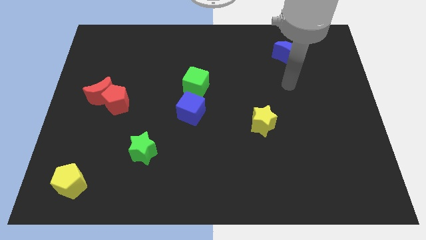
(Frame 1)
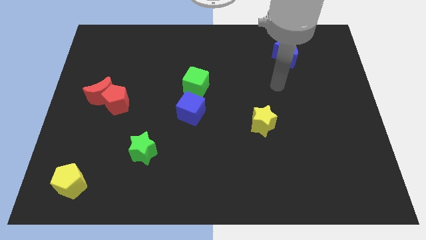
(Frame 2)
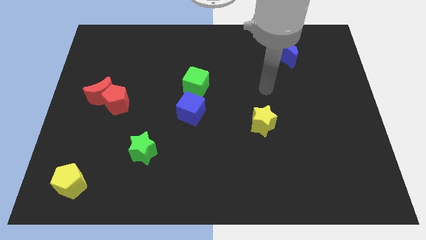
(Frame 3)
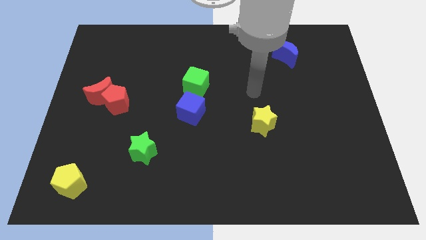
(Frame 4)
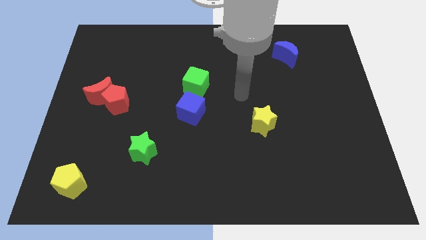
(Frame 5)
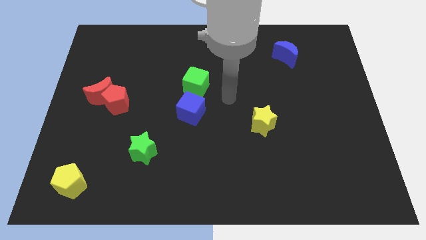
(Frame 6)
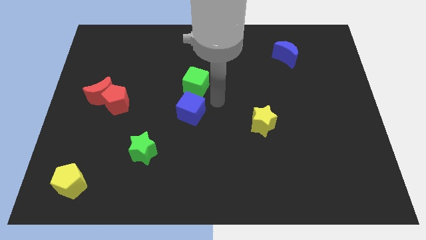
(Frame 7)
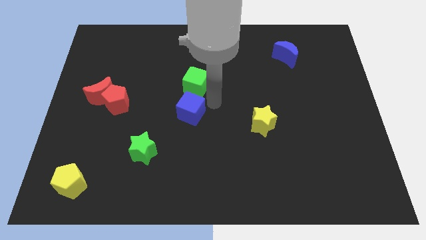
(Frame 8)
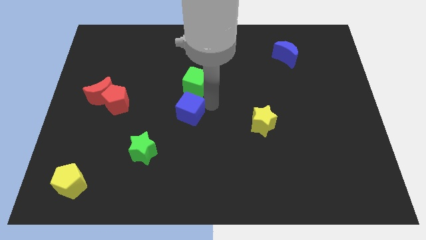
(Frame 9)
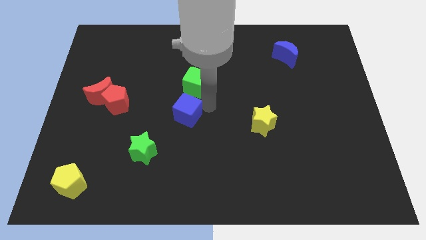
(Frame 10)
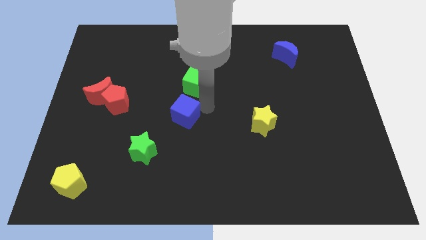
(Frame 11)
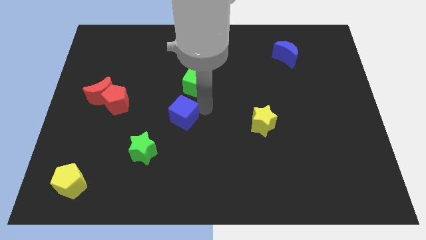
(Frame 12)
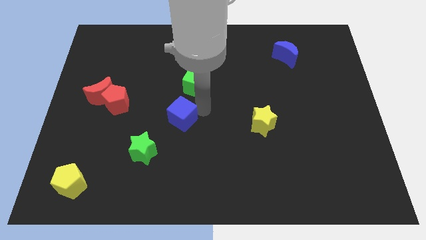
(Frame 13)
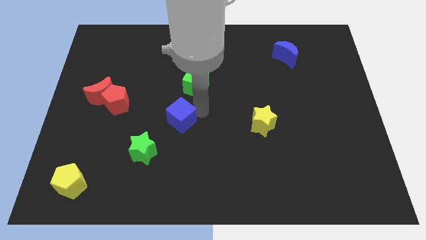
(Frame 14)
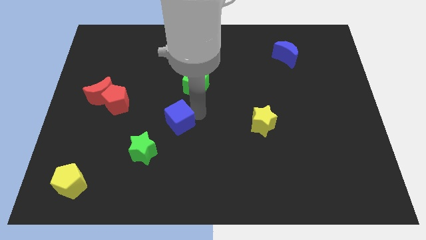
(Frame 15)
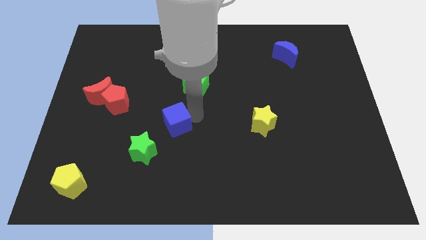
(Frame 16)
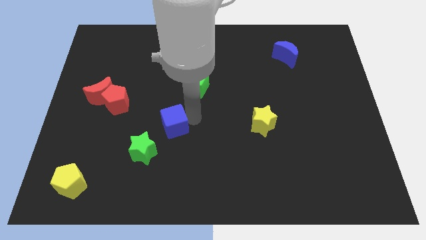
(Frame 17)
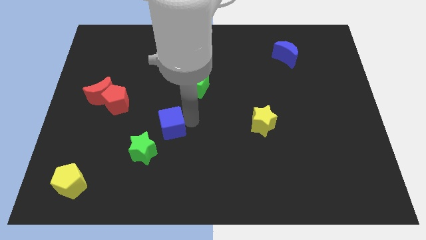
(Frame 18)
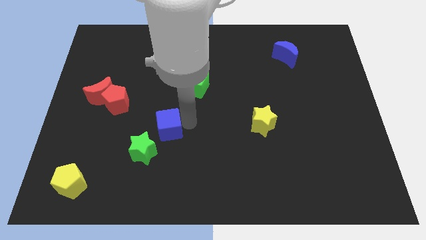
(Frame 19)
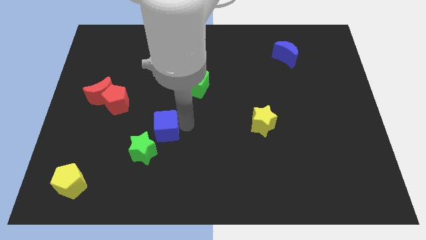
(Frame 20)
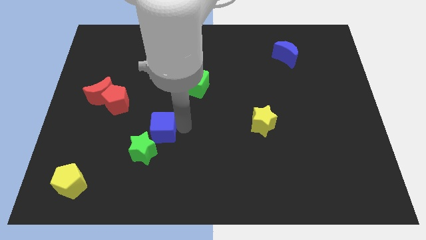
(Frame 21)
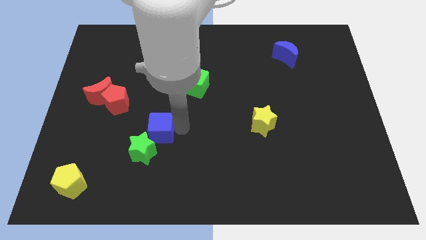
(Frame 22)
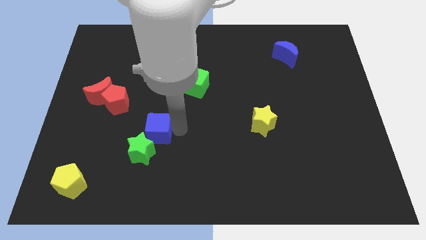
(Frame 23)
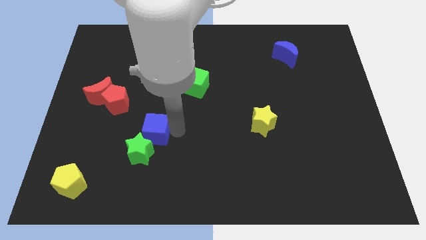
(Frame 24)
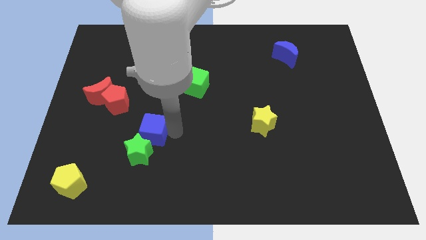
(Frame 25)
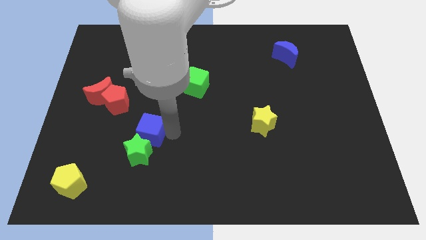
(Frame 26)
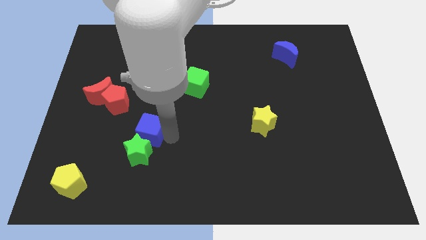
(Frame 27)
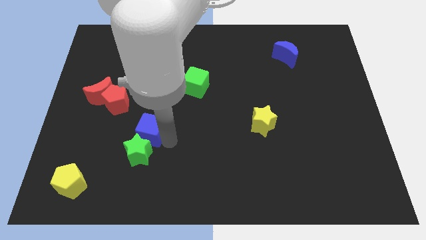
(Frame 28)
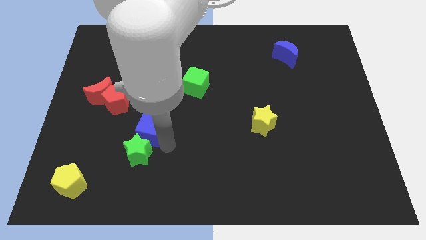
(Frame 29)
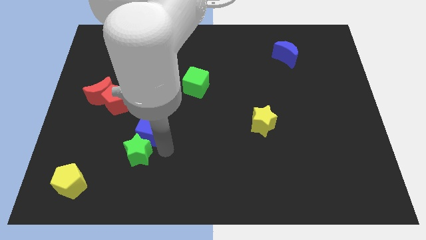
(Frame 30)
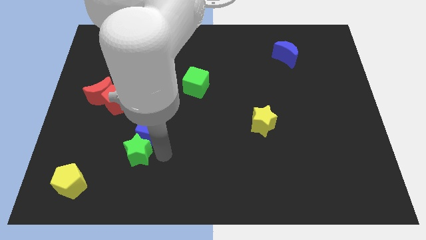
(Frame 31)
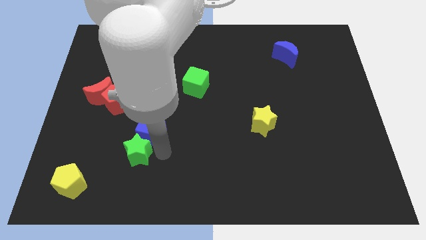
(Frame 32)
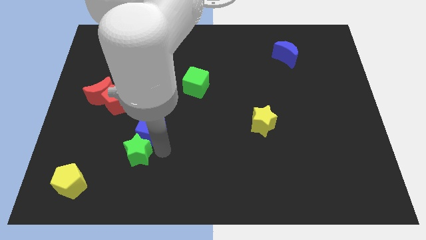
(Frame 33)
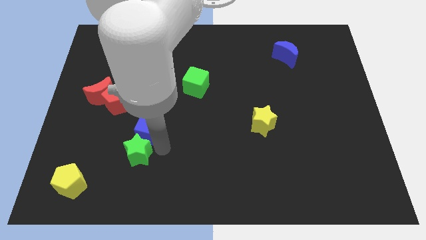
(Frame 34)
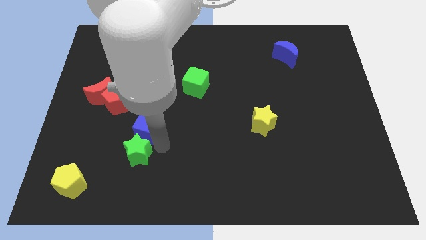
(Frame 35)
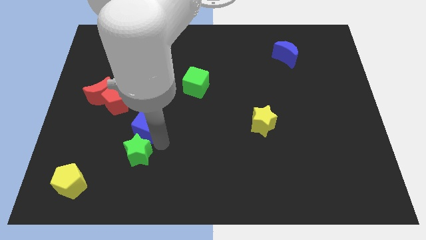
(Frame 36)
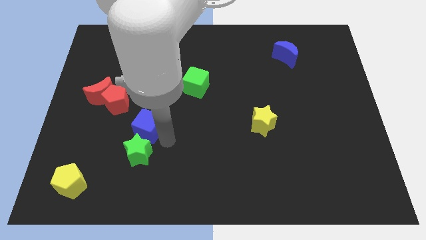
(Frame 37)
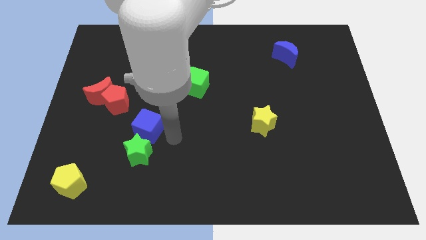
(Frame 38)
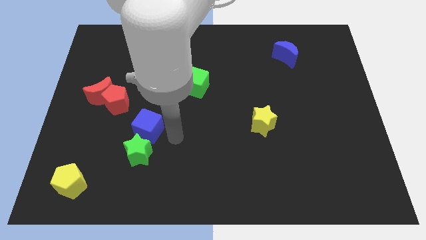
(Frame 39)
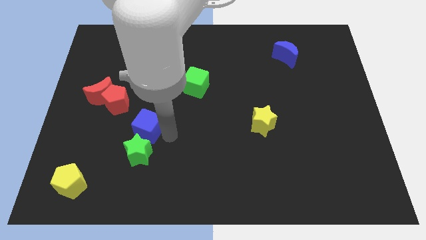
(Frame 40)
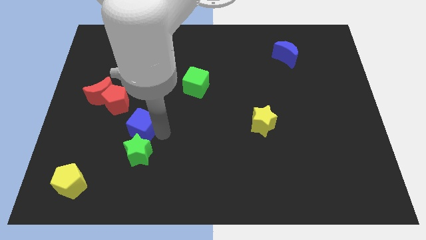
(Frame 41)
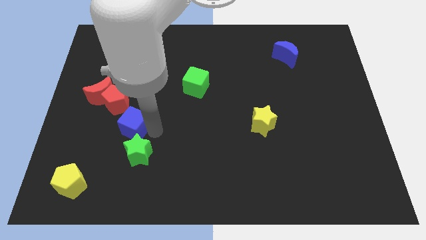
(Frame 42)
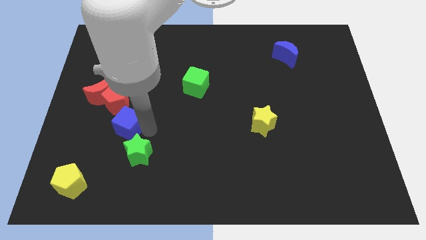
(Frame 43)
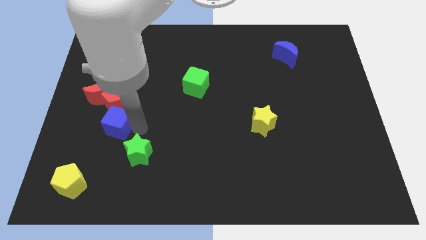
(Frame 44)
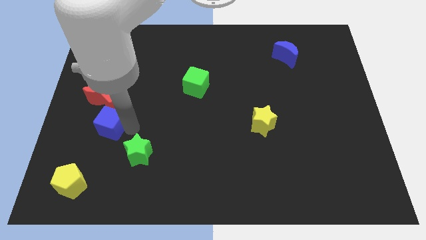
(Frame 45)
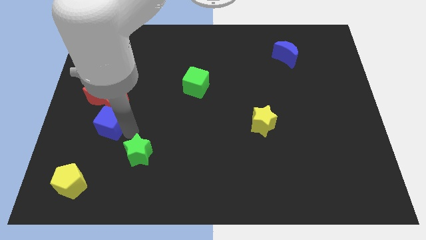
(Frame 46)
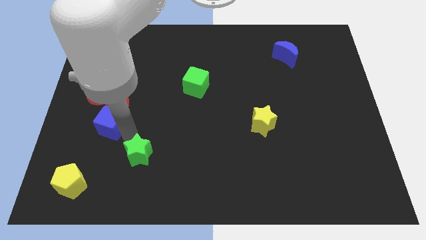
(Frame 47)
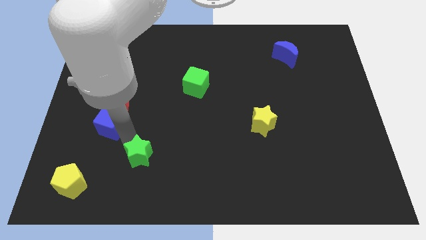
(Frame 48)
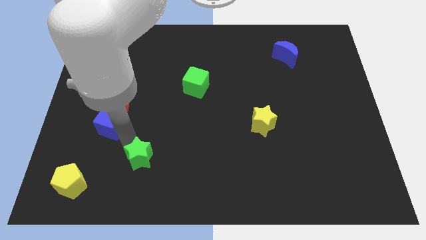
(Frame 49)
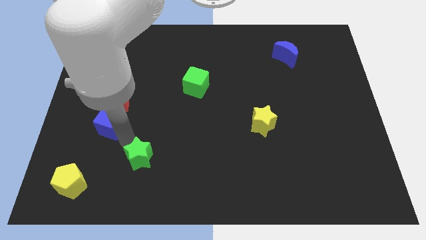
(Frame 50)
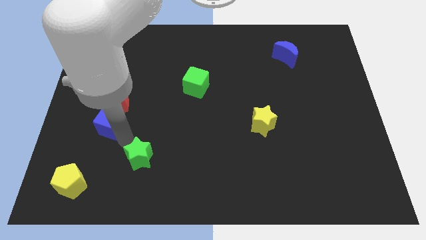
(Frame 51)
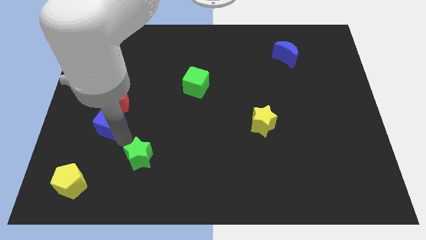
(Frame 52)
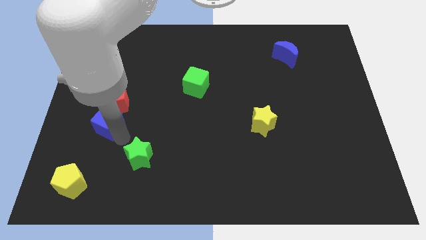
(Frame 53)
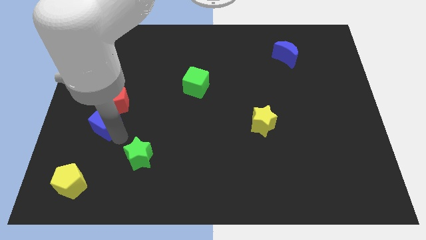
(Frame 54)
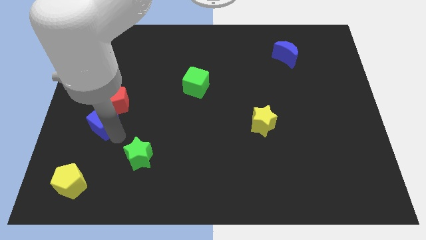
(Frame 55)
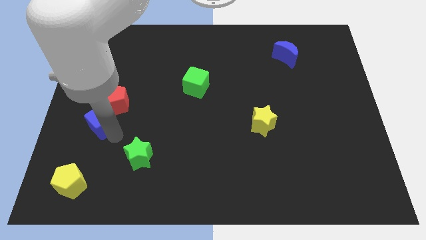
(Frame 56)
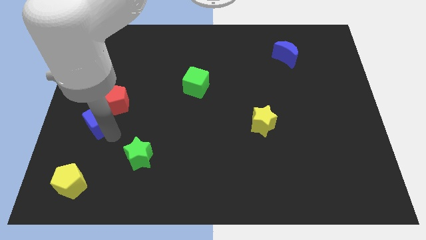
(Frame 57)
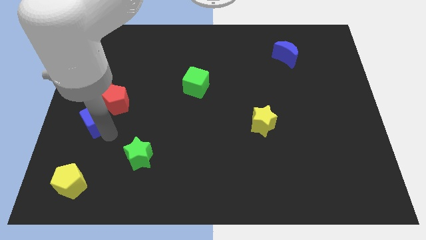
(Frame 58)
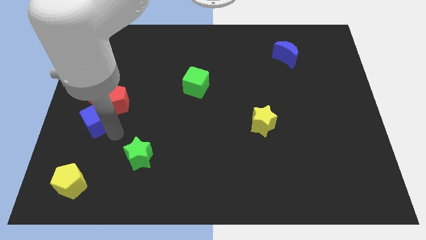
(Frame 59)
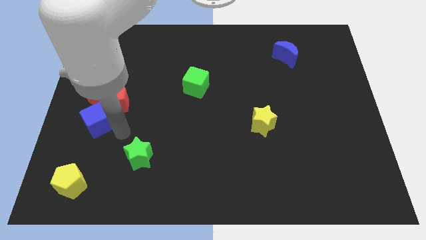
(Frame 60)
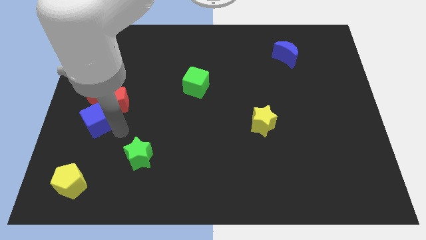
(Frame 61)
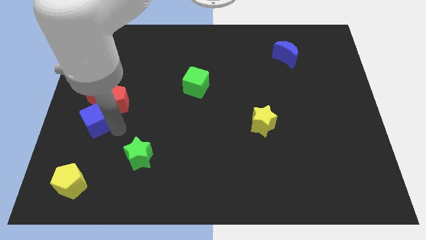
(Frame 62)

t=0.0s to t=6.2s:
move the blue cube to the left side

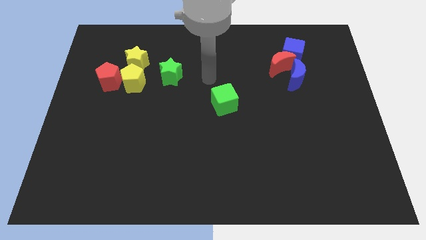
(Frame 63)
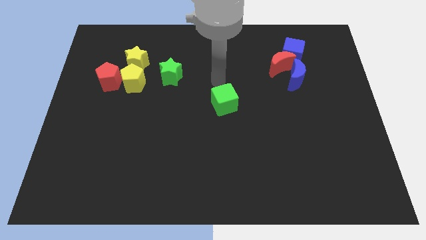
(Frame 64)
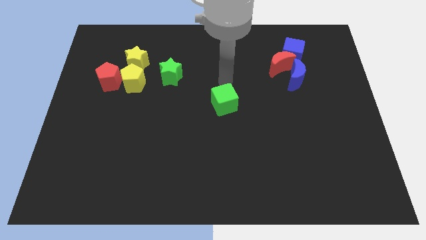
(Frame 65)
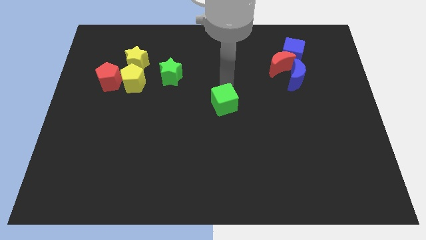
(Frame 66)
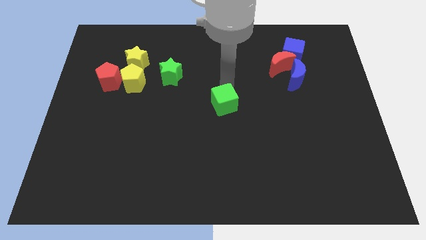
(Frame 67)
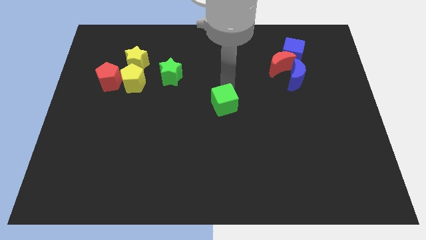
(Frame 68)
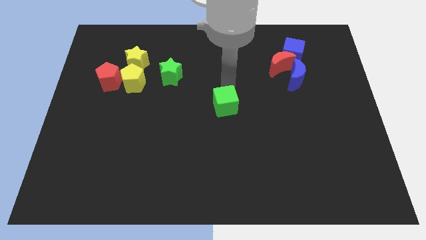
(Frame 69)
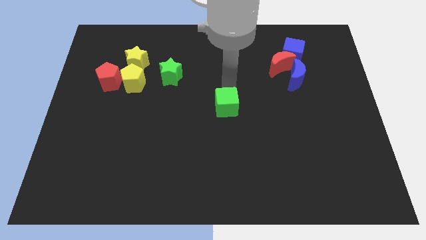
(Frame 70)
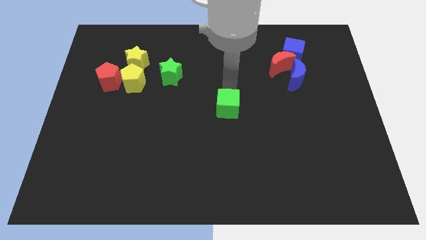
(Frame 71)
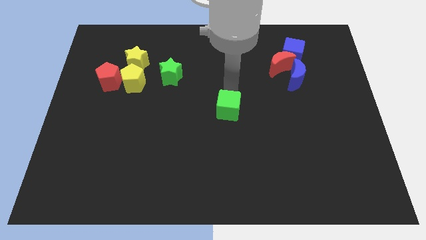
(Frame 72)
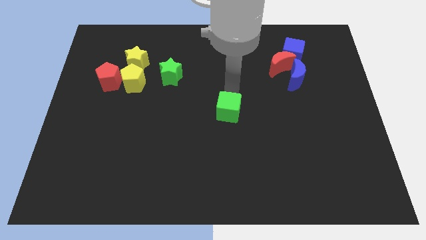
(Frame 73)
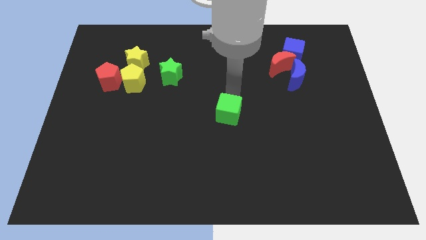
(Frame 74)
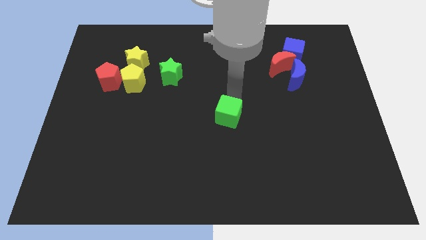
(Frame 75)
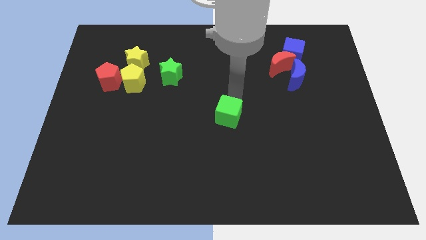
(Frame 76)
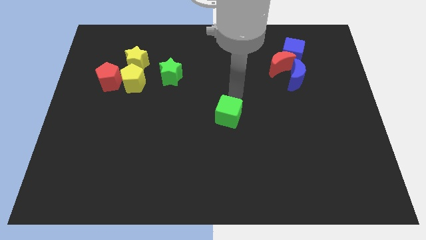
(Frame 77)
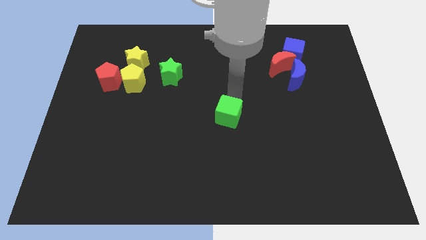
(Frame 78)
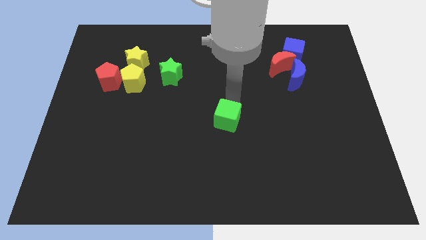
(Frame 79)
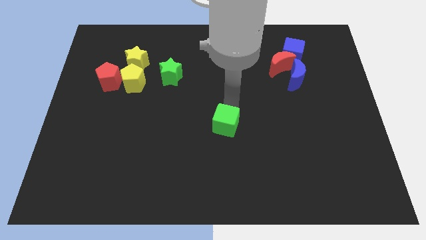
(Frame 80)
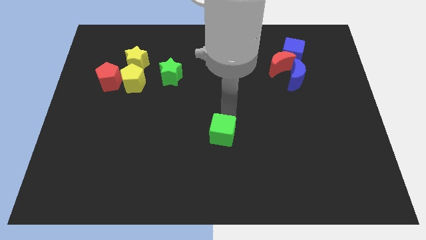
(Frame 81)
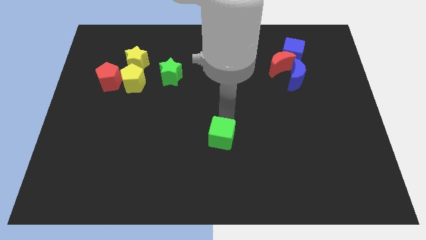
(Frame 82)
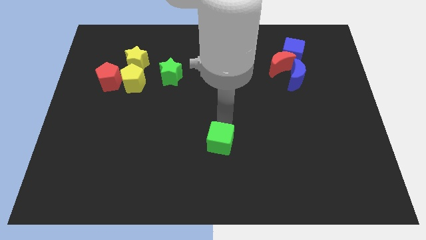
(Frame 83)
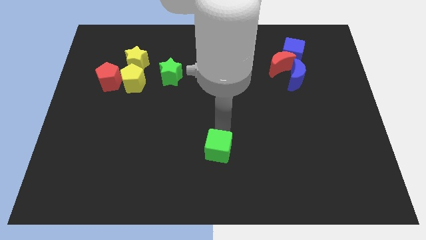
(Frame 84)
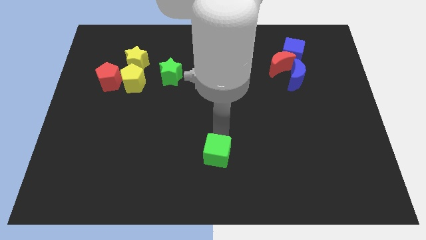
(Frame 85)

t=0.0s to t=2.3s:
put the green cube to the bottom
